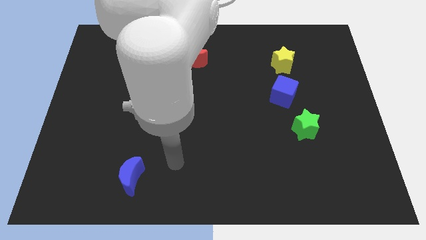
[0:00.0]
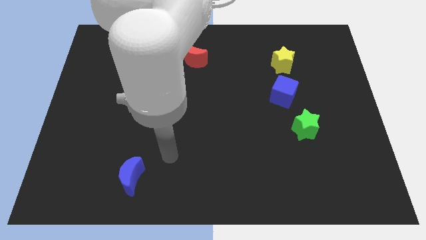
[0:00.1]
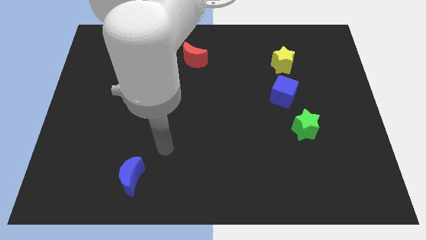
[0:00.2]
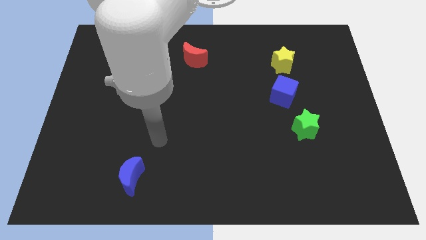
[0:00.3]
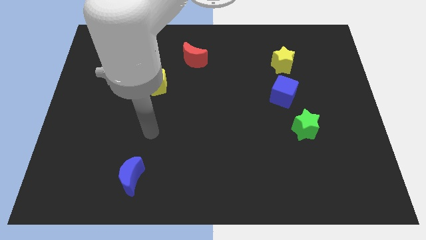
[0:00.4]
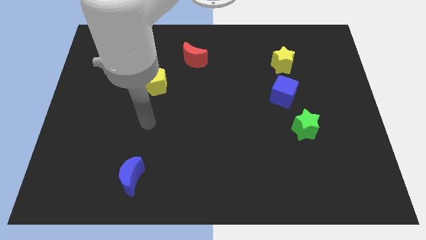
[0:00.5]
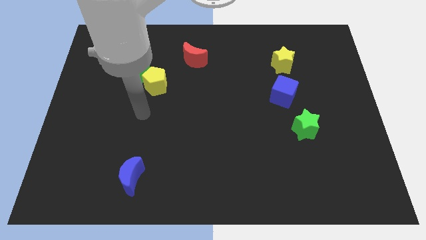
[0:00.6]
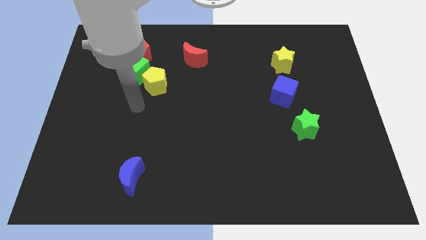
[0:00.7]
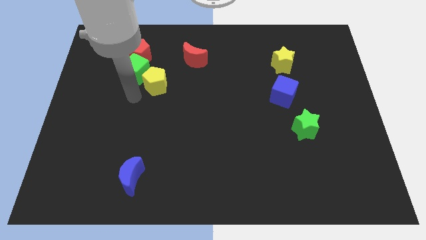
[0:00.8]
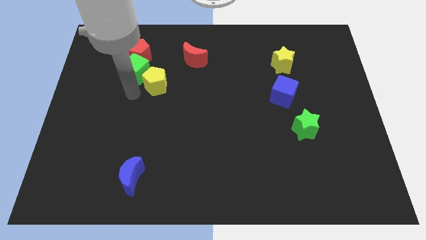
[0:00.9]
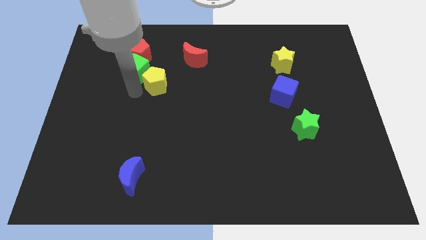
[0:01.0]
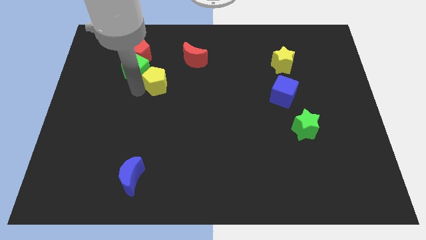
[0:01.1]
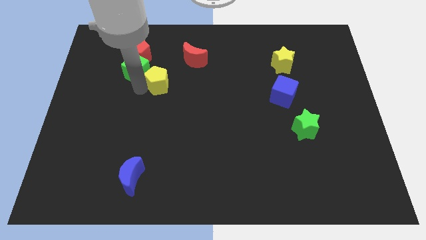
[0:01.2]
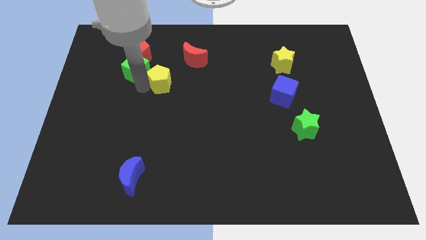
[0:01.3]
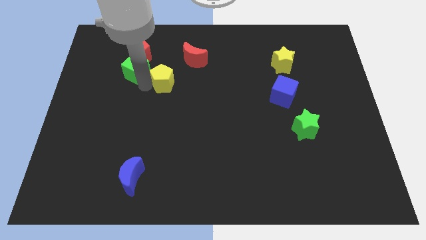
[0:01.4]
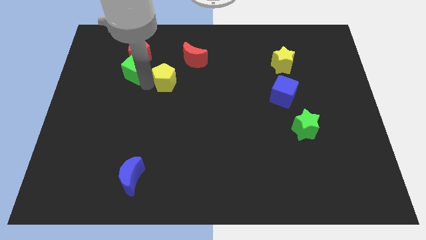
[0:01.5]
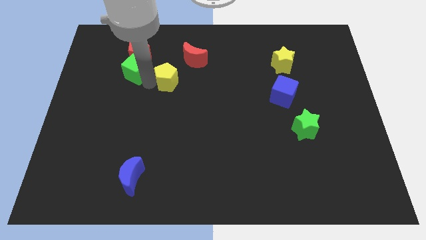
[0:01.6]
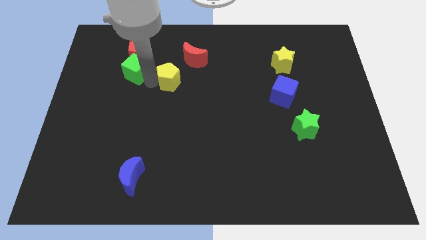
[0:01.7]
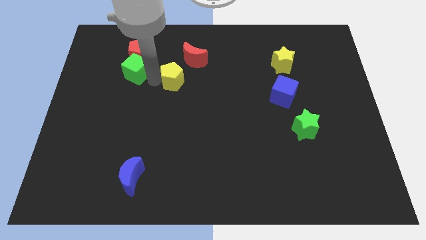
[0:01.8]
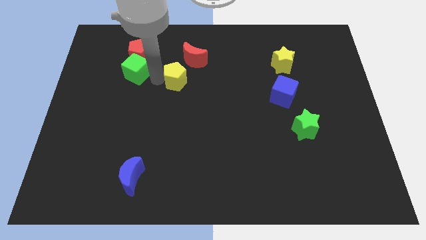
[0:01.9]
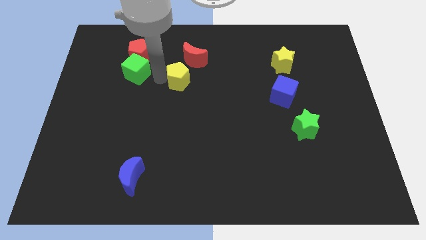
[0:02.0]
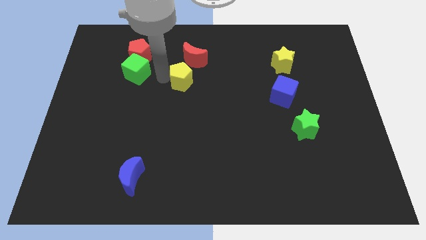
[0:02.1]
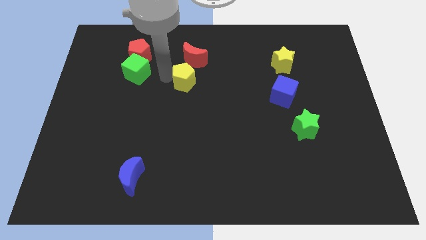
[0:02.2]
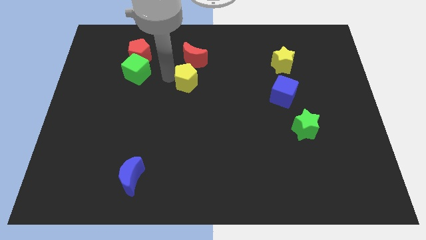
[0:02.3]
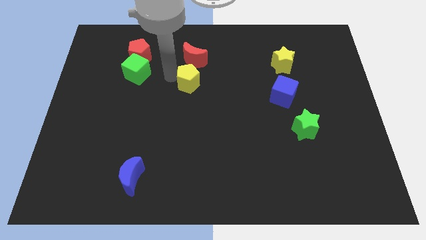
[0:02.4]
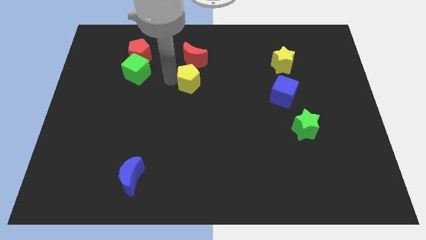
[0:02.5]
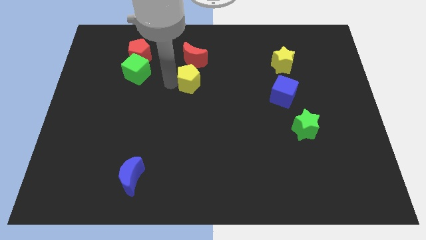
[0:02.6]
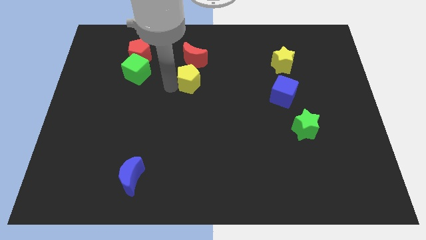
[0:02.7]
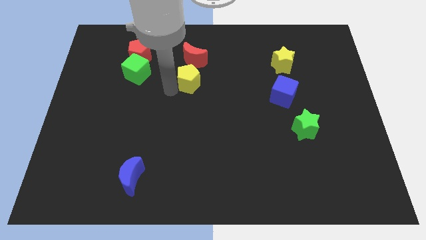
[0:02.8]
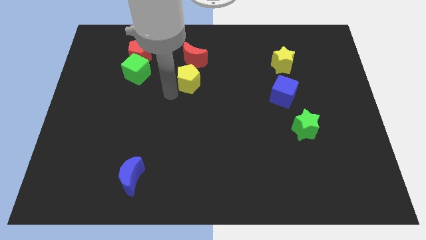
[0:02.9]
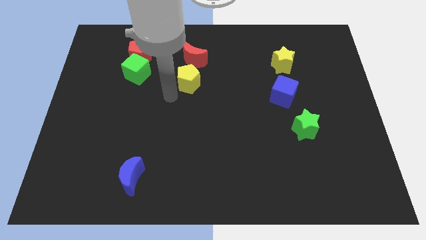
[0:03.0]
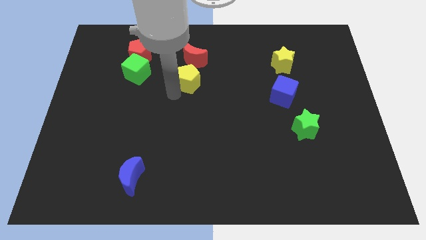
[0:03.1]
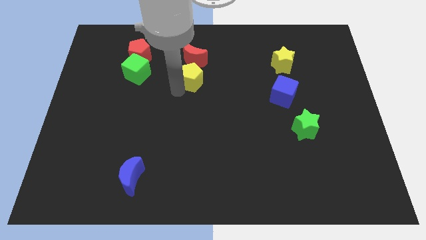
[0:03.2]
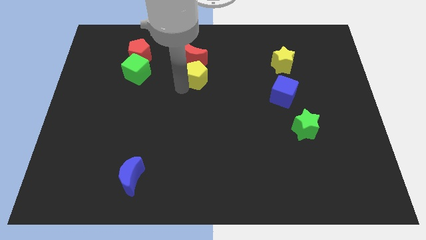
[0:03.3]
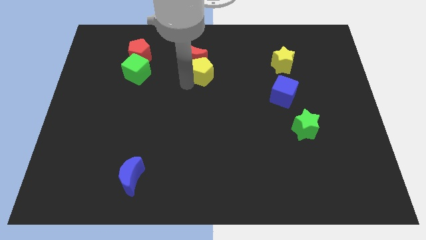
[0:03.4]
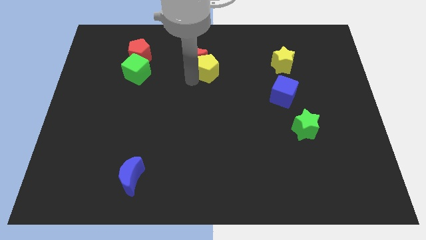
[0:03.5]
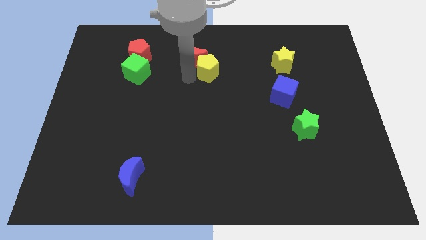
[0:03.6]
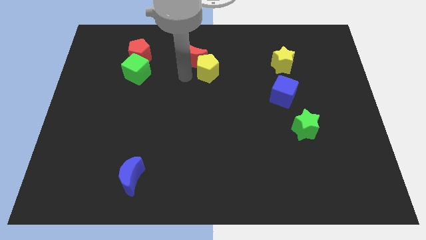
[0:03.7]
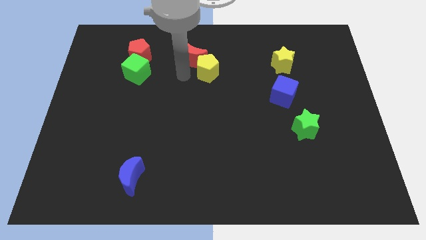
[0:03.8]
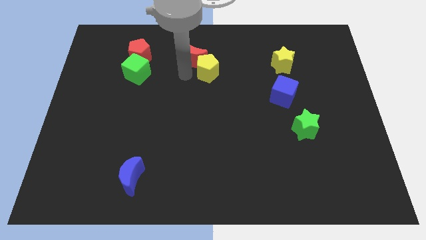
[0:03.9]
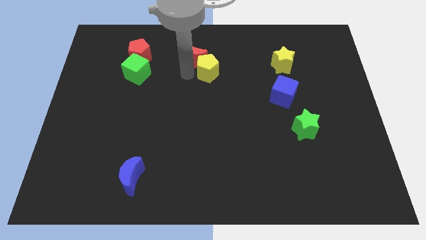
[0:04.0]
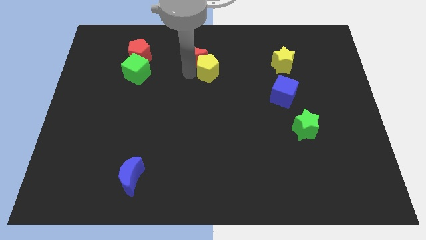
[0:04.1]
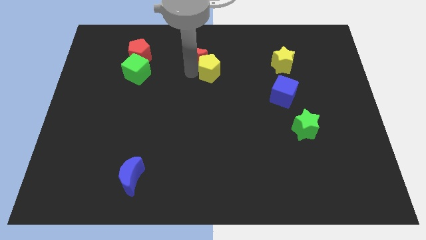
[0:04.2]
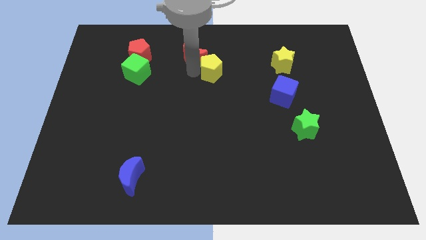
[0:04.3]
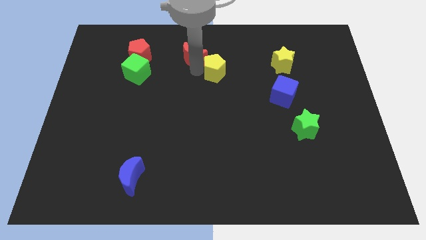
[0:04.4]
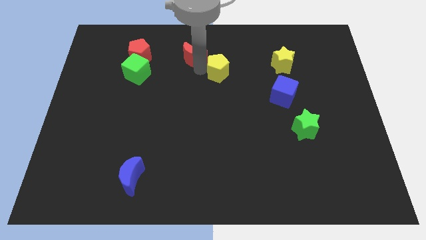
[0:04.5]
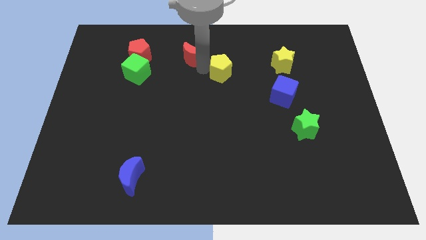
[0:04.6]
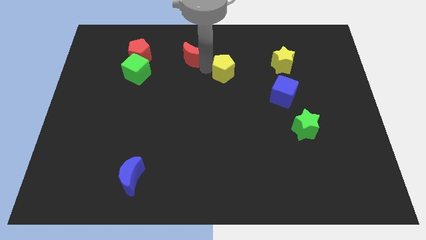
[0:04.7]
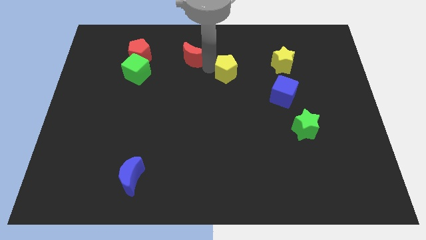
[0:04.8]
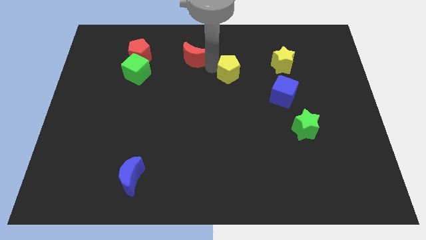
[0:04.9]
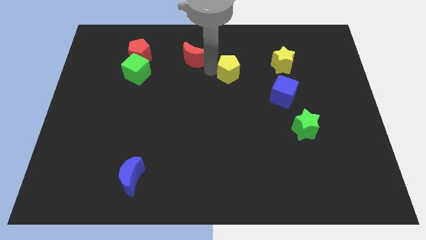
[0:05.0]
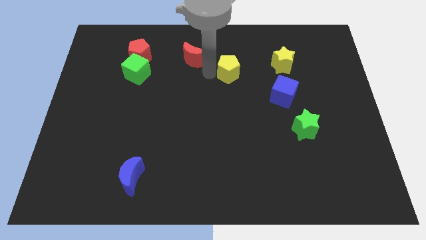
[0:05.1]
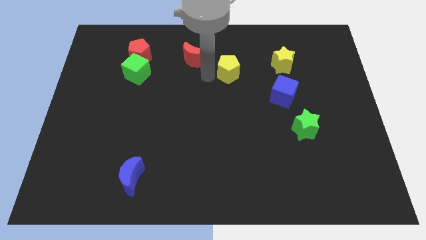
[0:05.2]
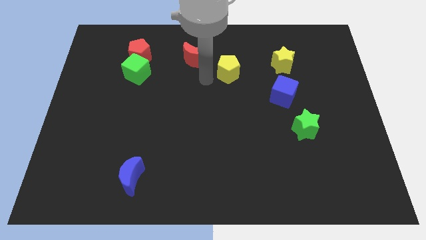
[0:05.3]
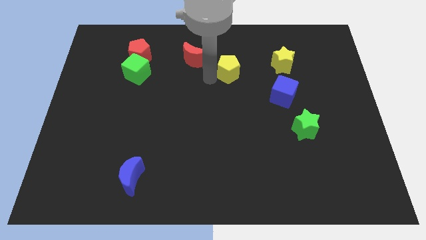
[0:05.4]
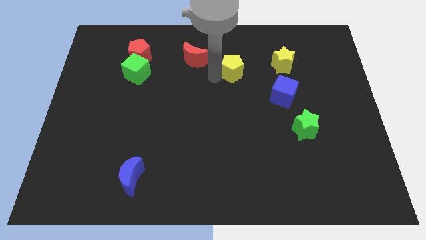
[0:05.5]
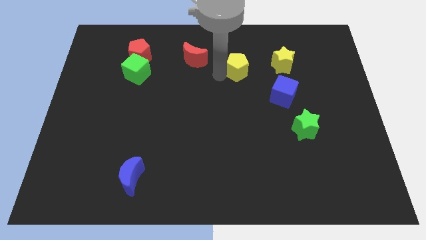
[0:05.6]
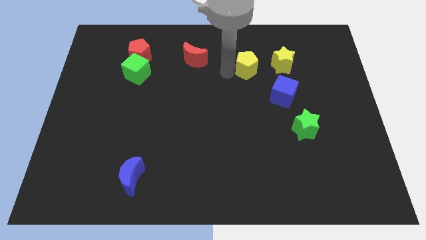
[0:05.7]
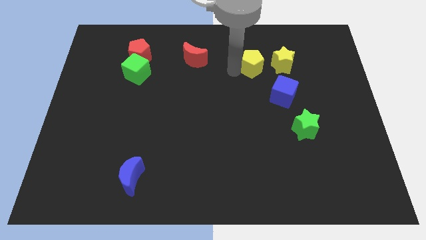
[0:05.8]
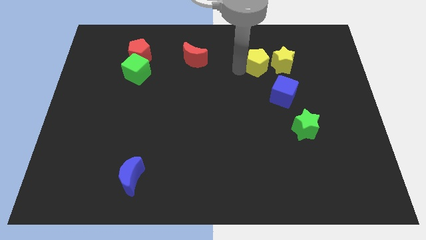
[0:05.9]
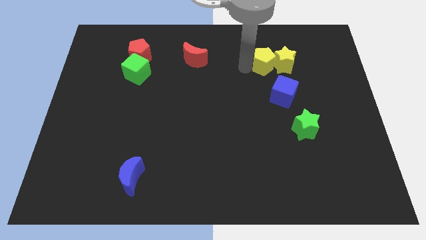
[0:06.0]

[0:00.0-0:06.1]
move the yellow pentagon next to the yellow star
